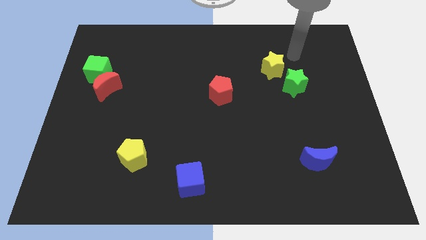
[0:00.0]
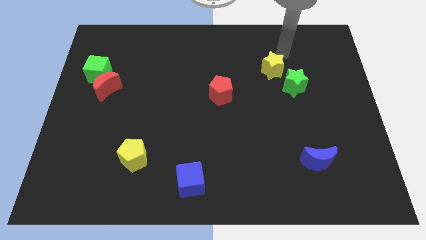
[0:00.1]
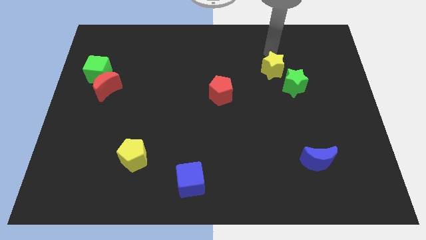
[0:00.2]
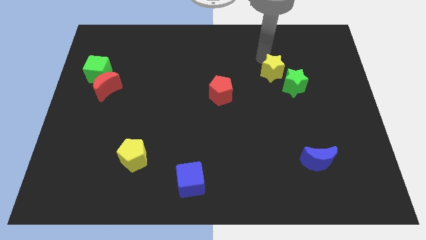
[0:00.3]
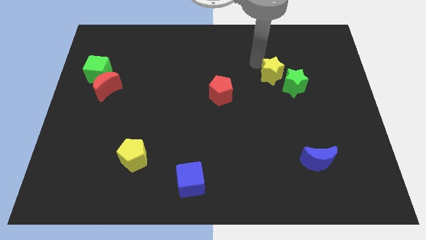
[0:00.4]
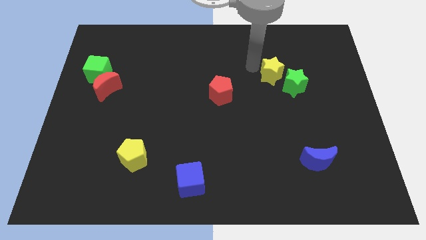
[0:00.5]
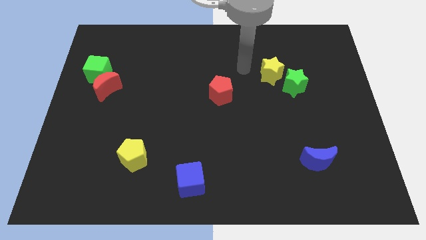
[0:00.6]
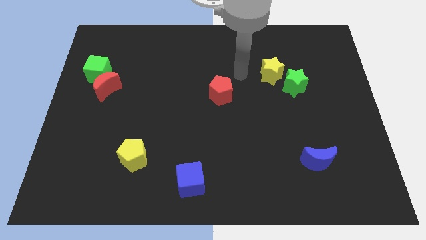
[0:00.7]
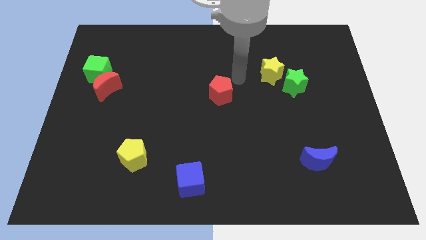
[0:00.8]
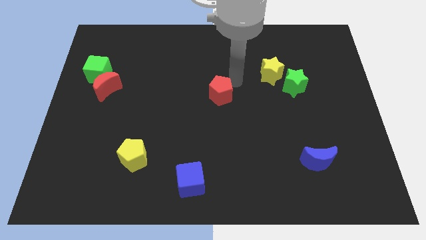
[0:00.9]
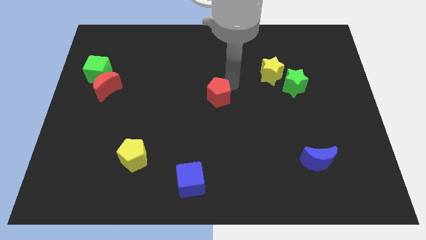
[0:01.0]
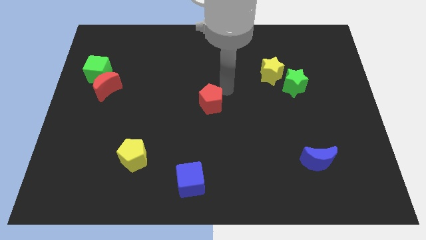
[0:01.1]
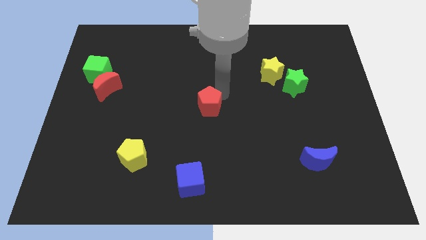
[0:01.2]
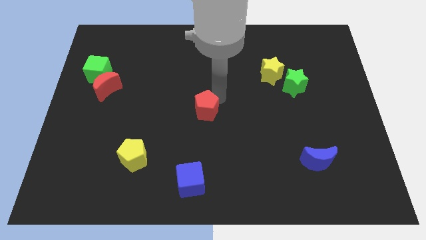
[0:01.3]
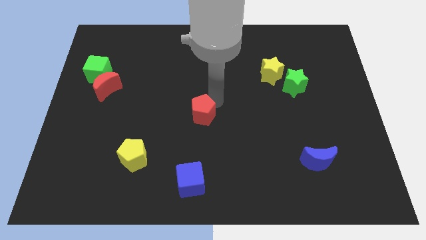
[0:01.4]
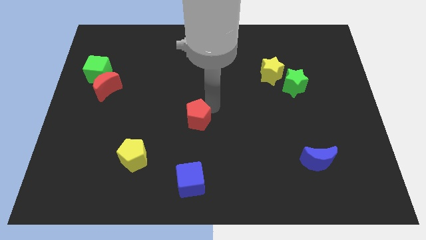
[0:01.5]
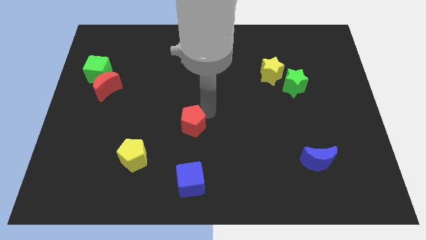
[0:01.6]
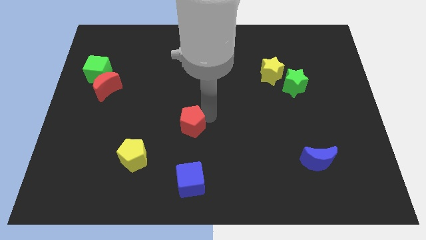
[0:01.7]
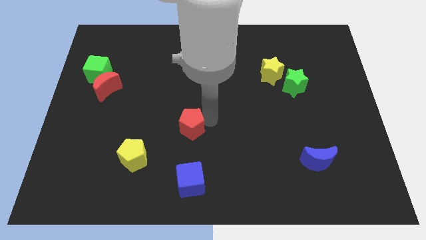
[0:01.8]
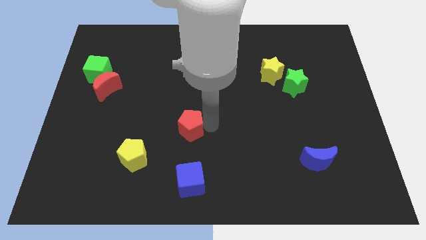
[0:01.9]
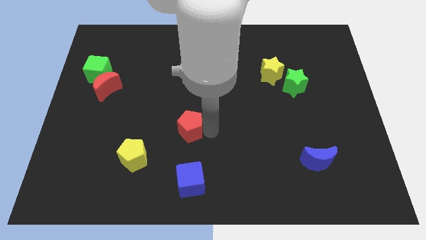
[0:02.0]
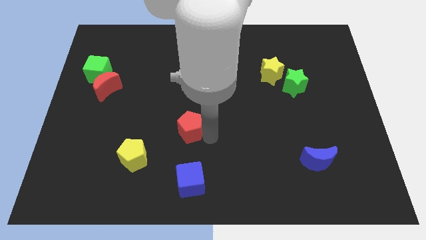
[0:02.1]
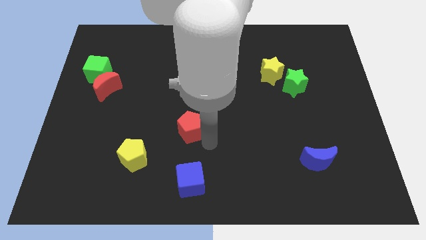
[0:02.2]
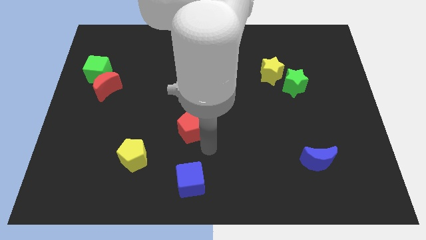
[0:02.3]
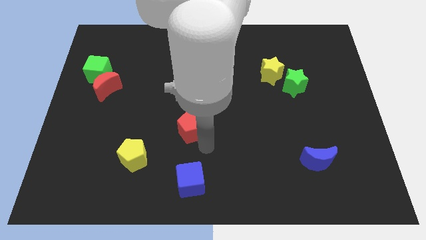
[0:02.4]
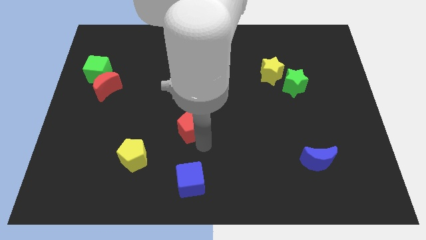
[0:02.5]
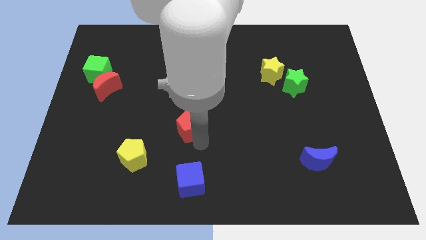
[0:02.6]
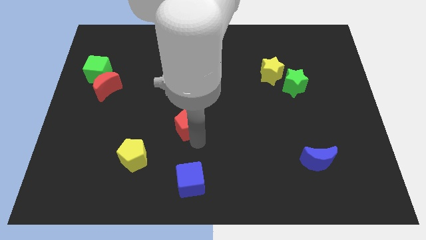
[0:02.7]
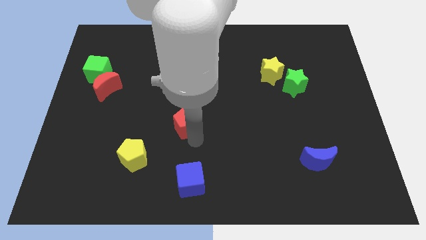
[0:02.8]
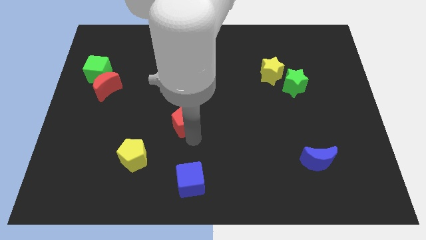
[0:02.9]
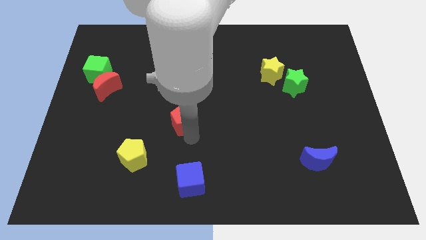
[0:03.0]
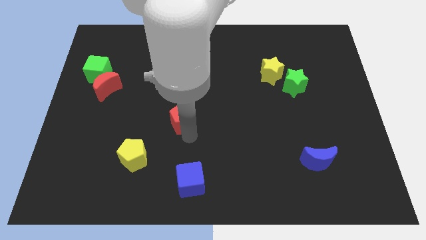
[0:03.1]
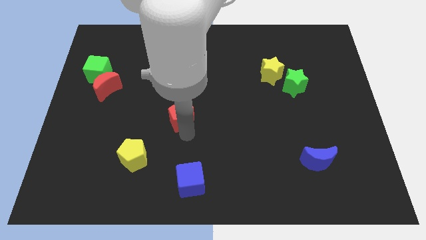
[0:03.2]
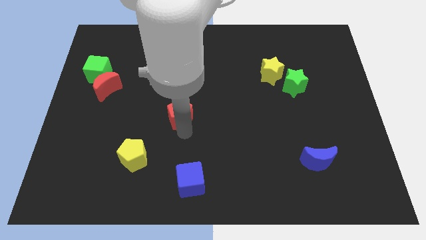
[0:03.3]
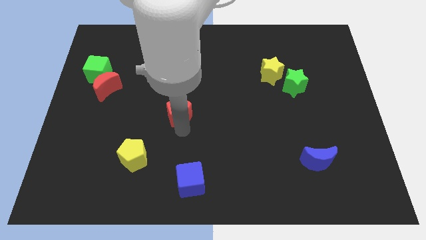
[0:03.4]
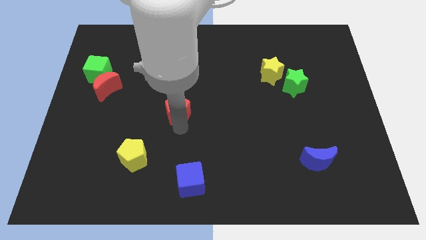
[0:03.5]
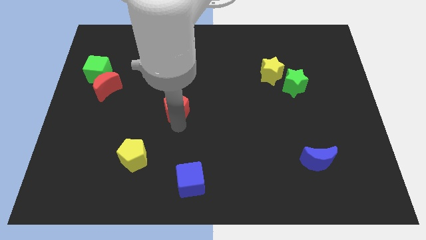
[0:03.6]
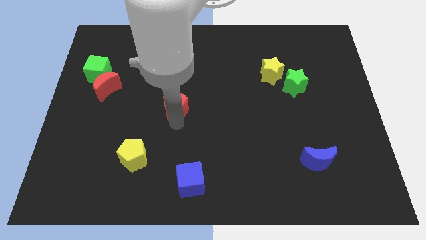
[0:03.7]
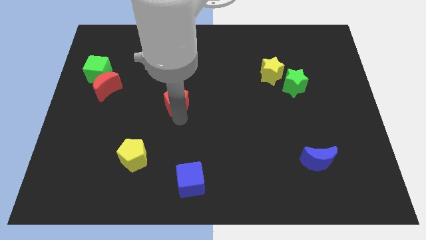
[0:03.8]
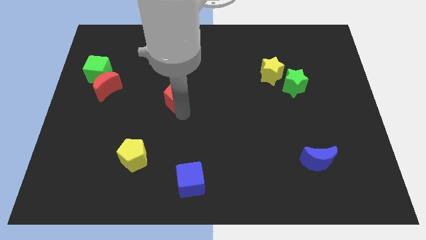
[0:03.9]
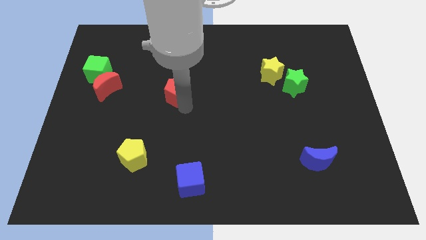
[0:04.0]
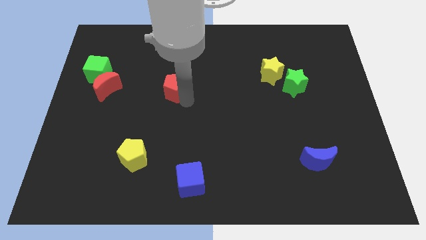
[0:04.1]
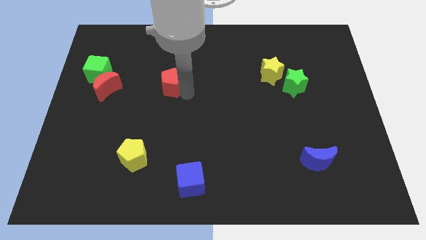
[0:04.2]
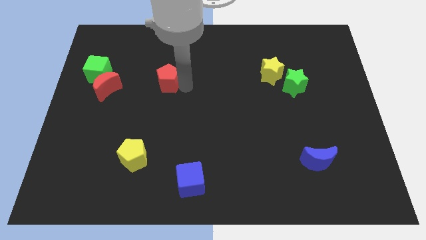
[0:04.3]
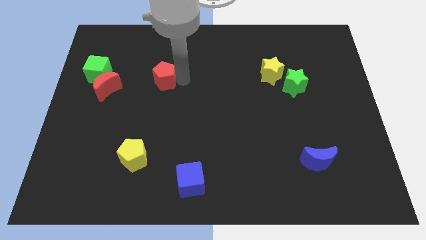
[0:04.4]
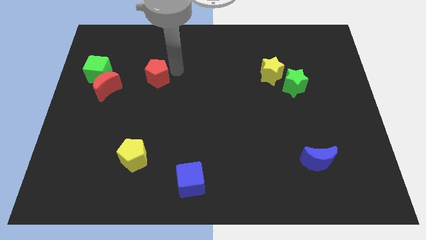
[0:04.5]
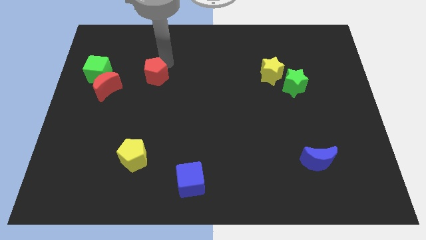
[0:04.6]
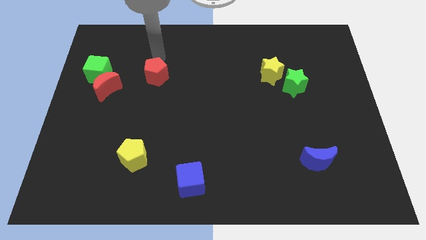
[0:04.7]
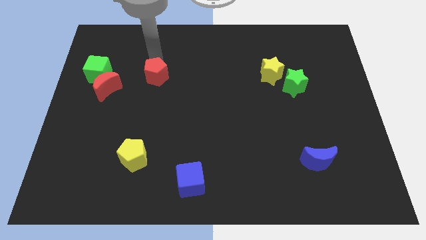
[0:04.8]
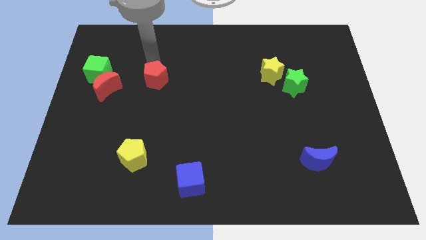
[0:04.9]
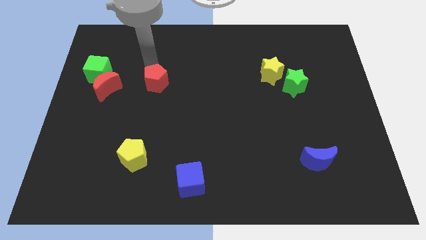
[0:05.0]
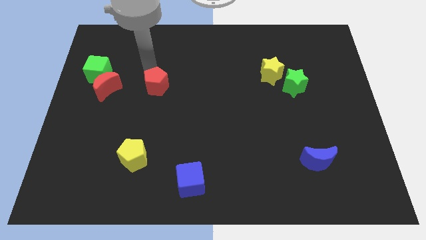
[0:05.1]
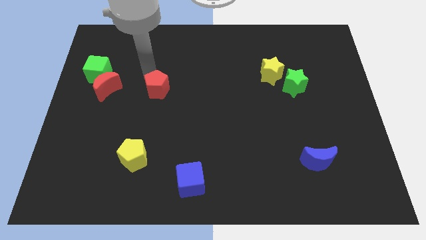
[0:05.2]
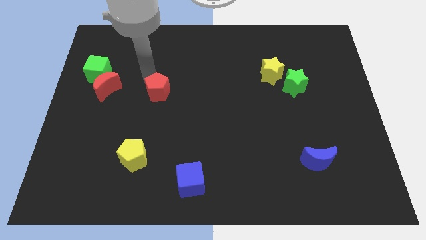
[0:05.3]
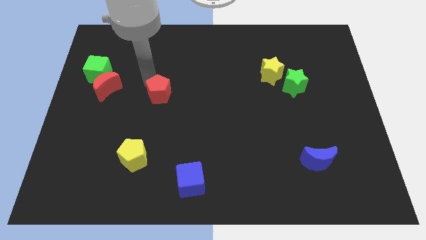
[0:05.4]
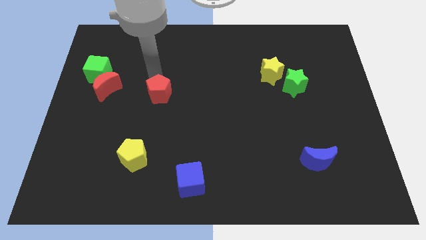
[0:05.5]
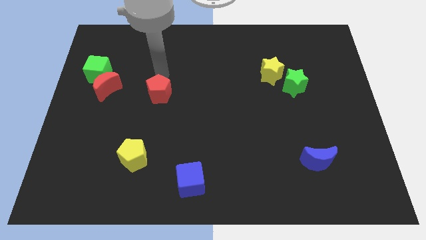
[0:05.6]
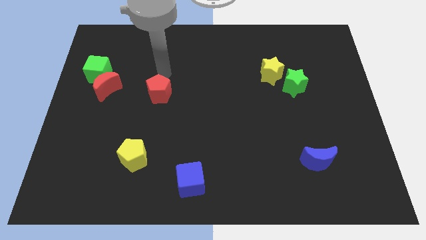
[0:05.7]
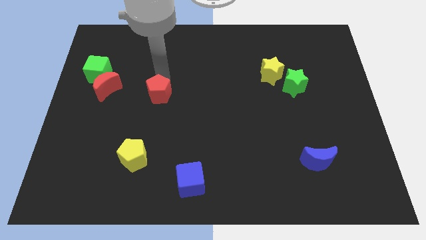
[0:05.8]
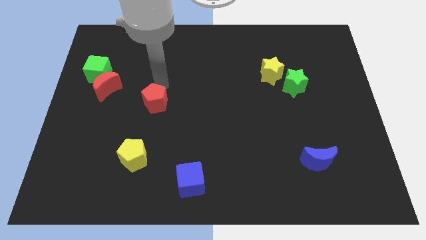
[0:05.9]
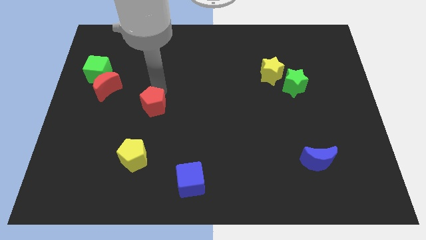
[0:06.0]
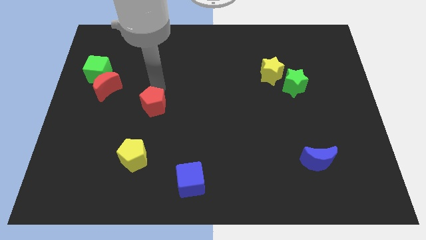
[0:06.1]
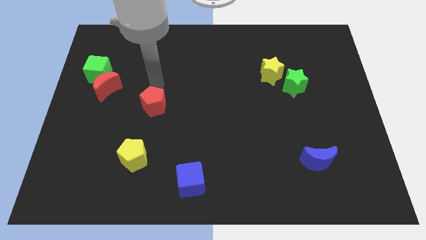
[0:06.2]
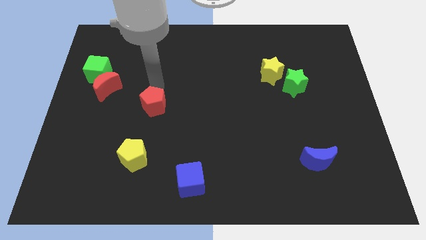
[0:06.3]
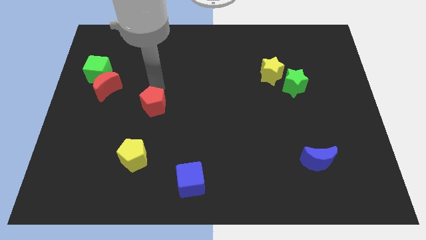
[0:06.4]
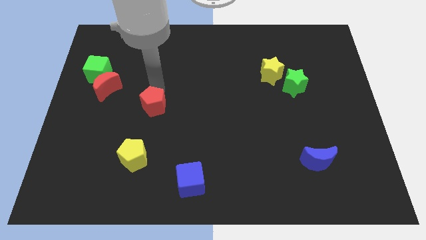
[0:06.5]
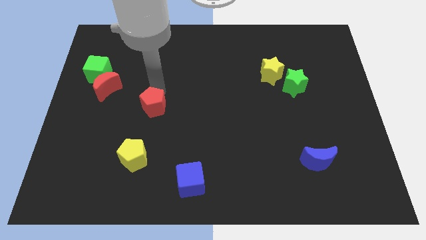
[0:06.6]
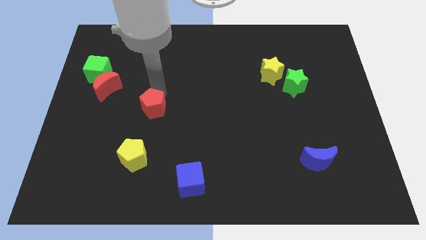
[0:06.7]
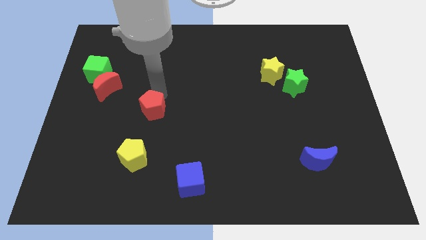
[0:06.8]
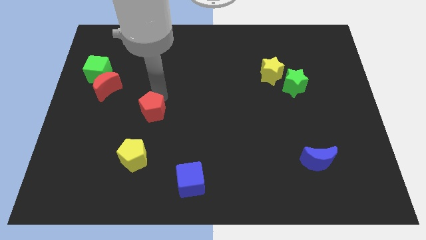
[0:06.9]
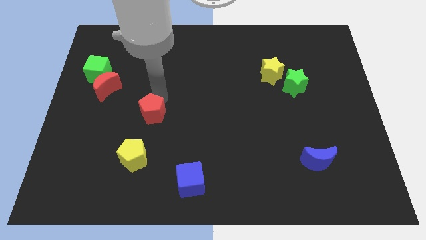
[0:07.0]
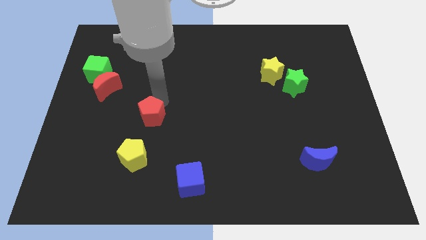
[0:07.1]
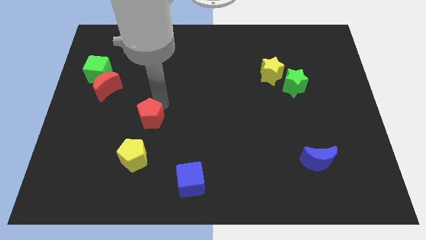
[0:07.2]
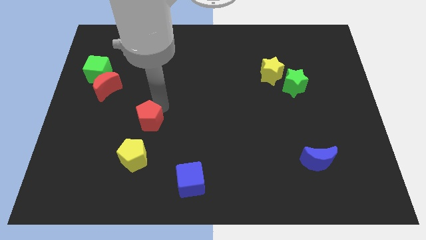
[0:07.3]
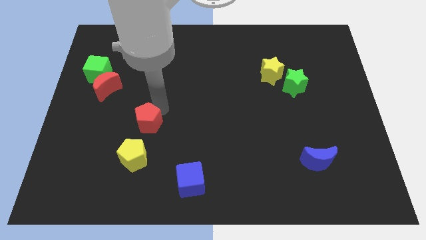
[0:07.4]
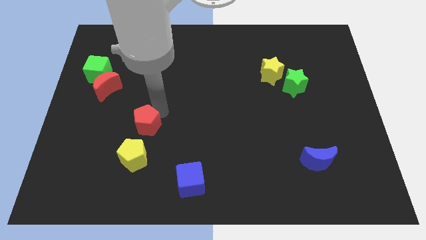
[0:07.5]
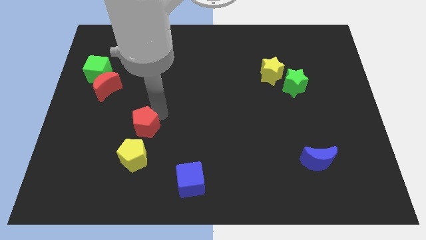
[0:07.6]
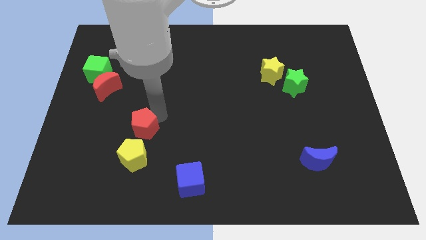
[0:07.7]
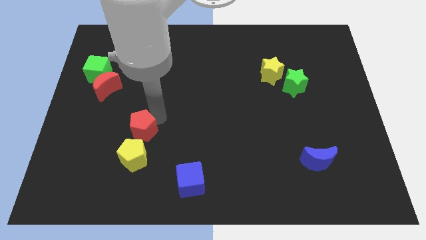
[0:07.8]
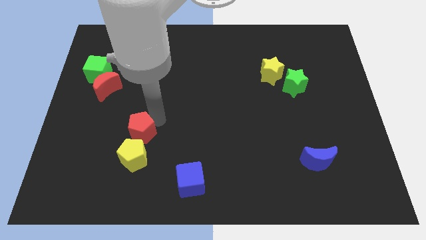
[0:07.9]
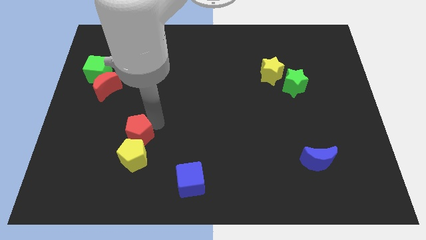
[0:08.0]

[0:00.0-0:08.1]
move the red pentagon downwards and left

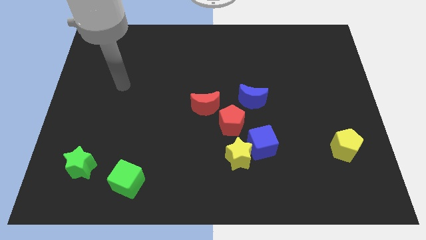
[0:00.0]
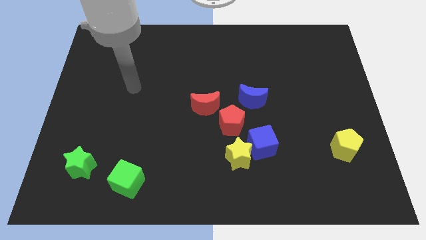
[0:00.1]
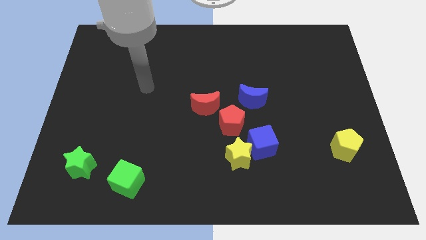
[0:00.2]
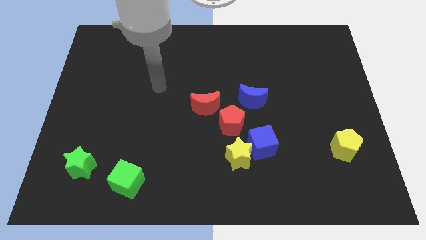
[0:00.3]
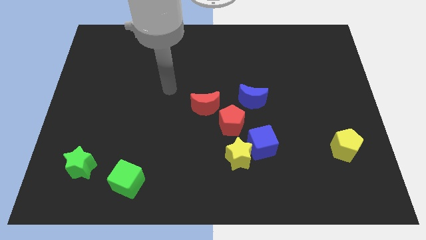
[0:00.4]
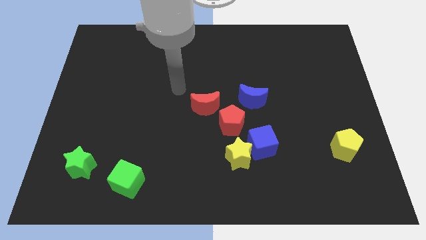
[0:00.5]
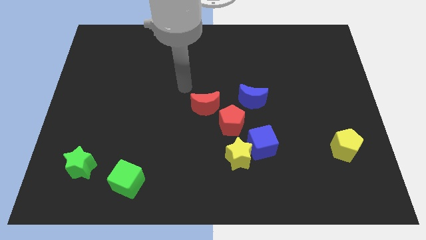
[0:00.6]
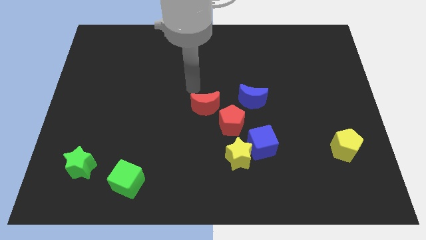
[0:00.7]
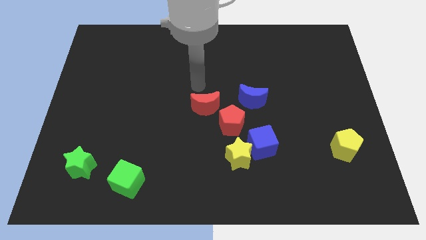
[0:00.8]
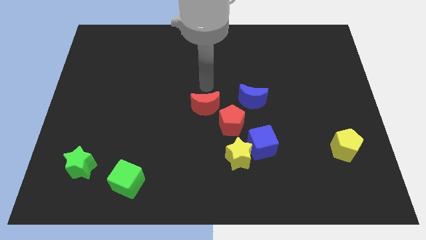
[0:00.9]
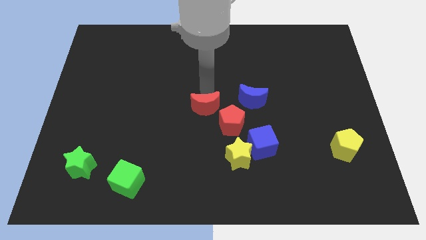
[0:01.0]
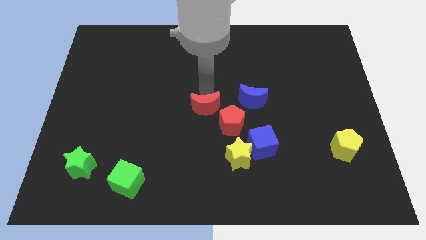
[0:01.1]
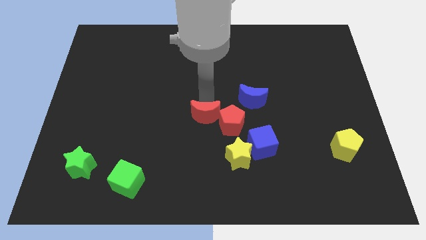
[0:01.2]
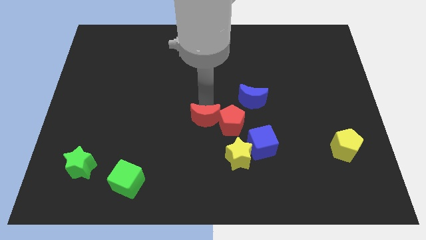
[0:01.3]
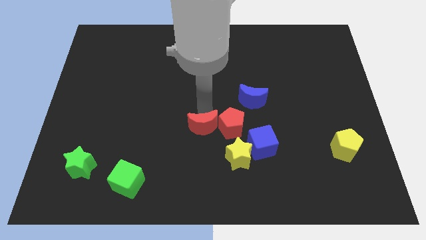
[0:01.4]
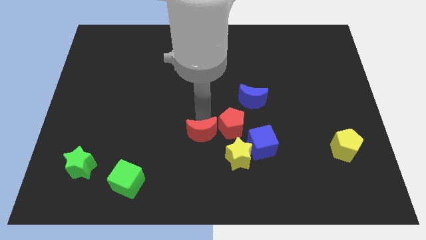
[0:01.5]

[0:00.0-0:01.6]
slide the red moon down a little
